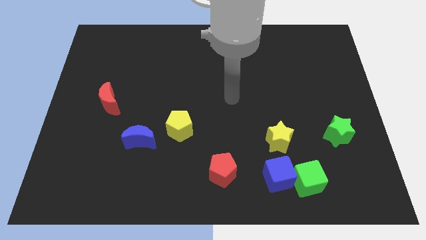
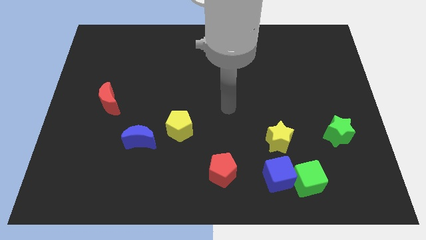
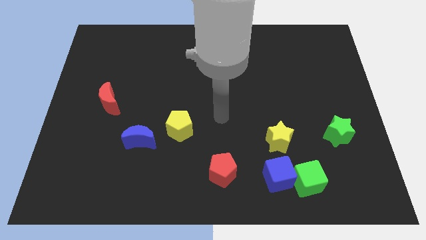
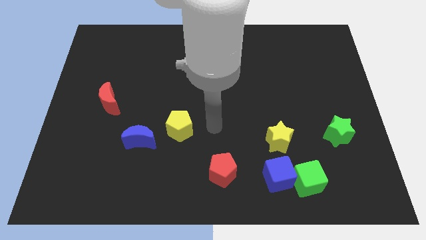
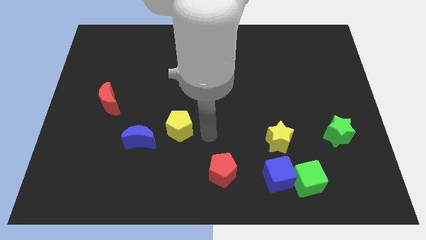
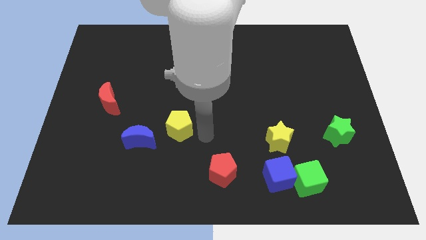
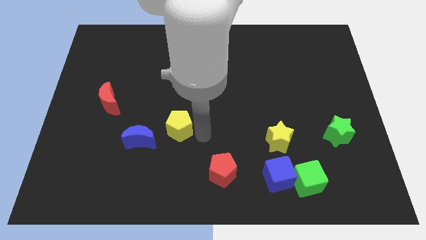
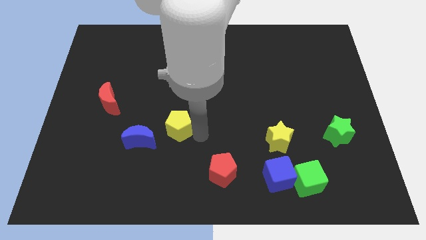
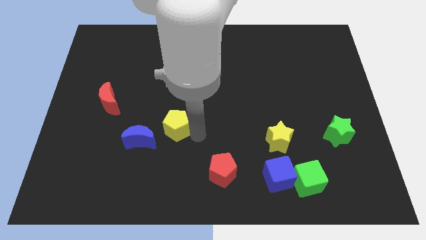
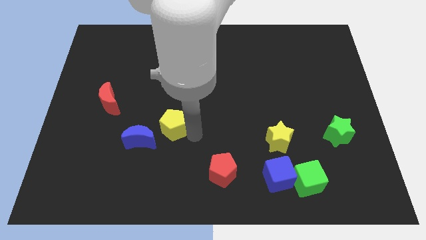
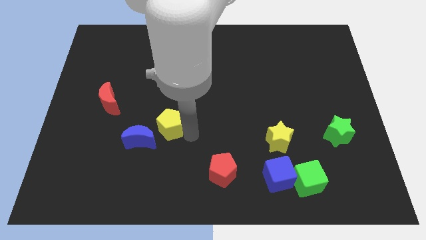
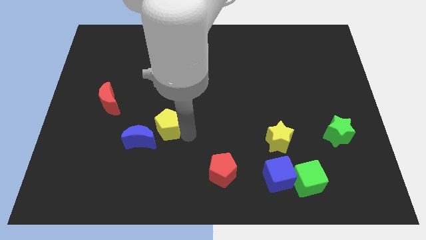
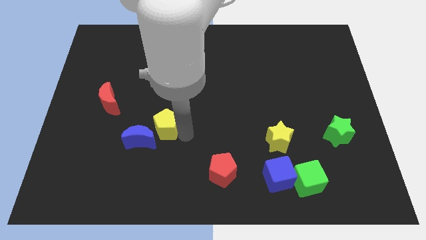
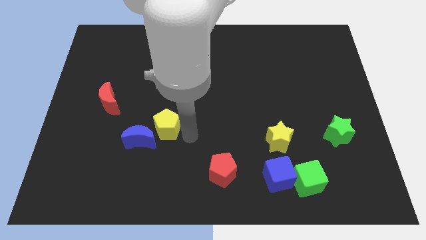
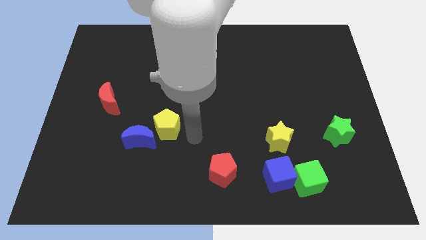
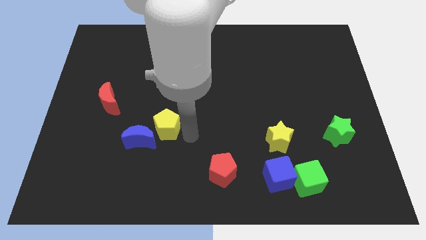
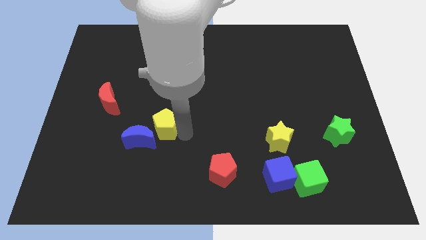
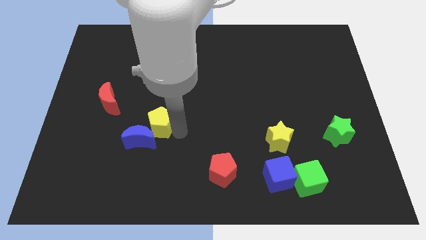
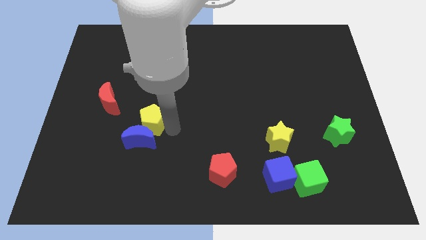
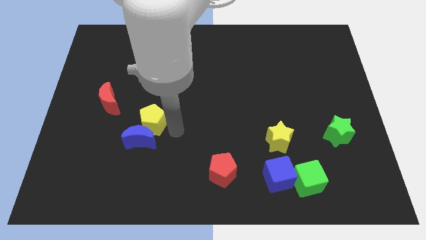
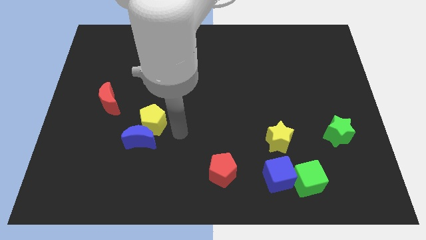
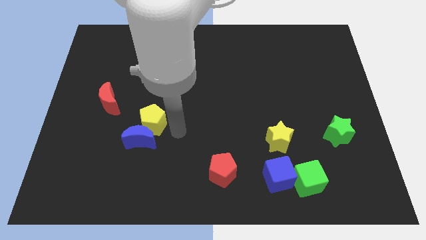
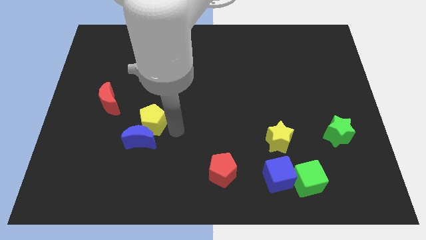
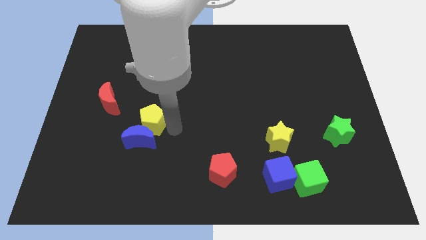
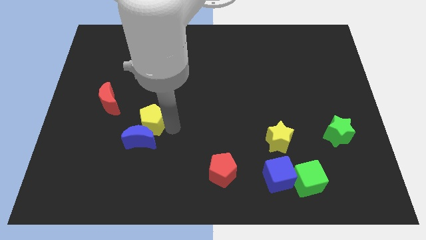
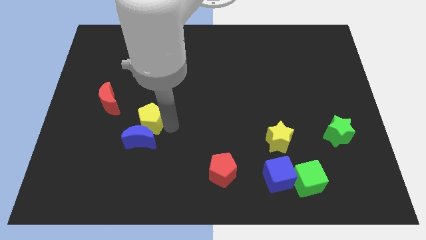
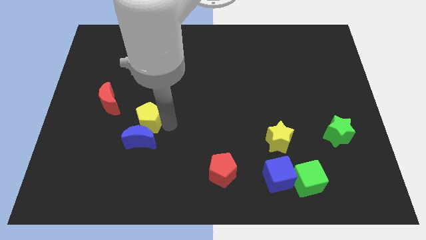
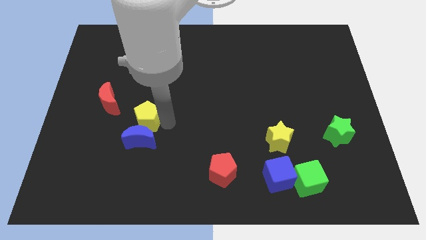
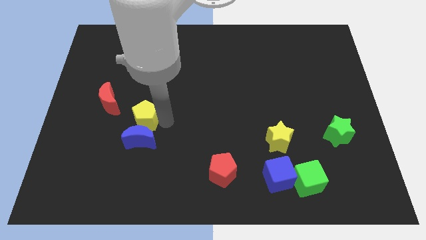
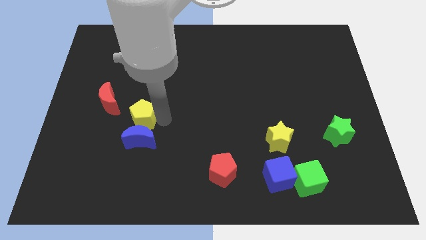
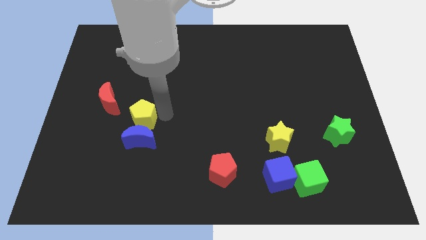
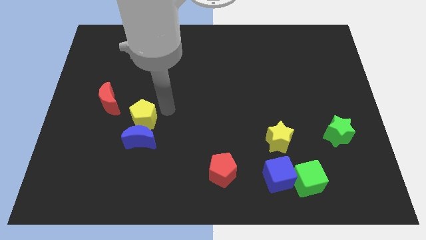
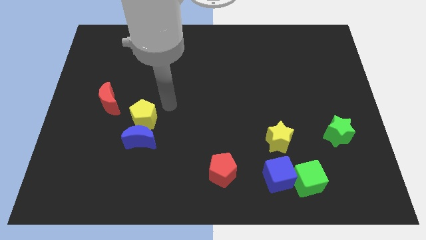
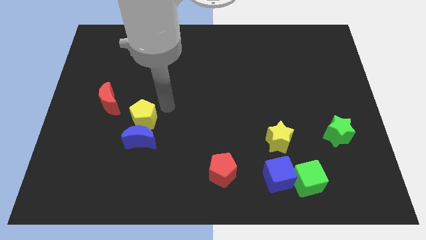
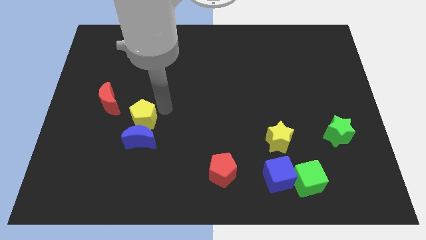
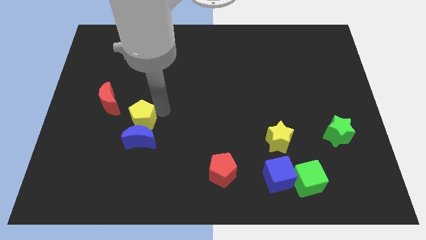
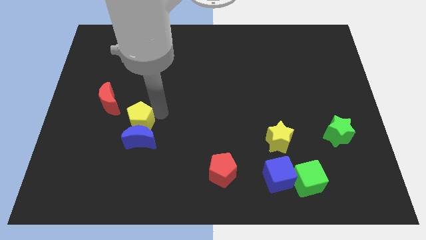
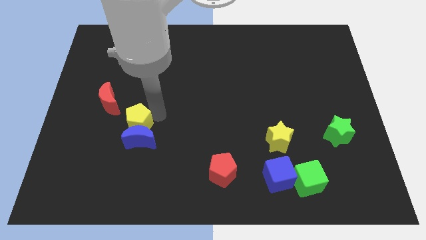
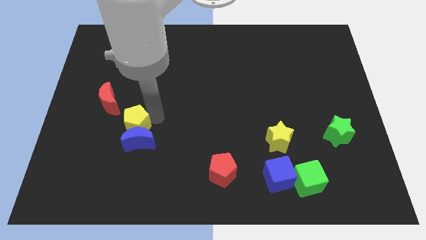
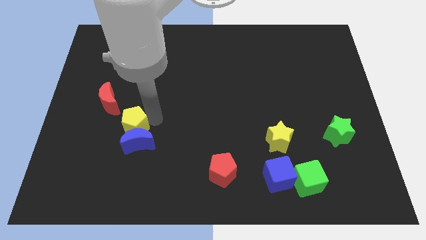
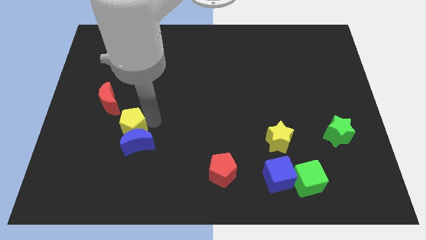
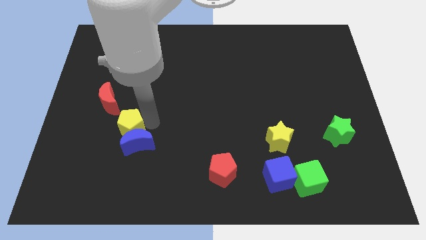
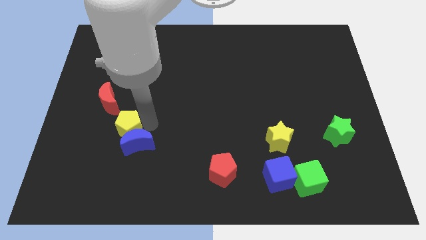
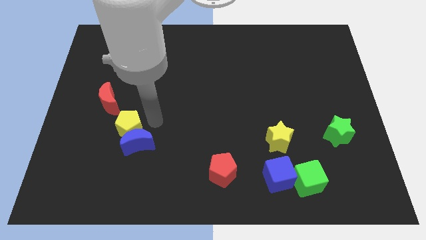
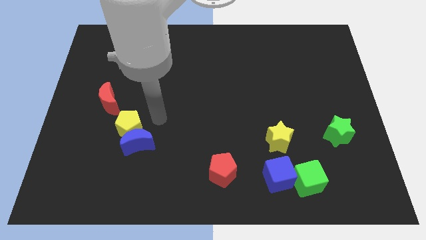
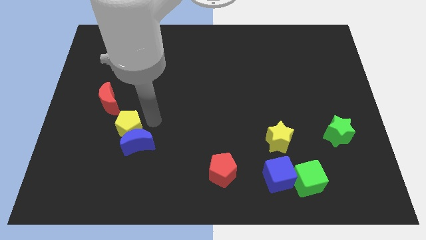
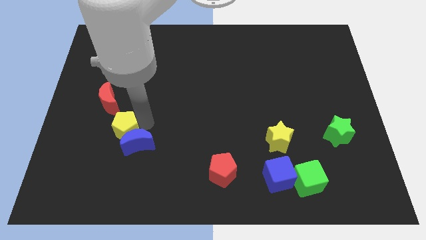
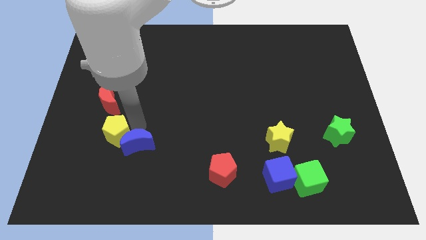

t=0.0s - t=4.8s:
move the yellow pentagon to the bottom side of the red moon

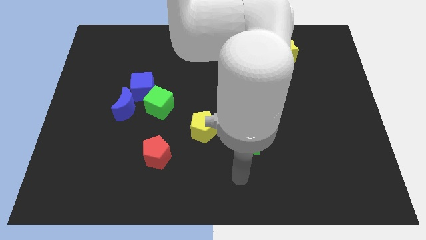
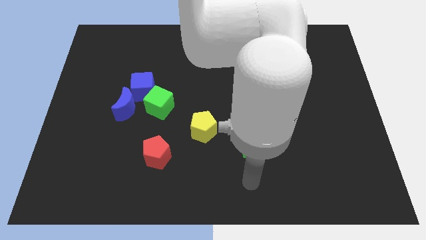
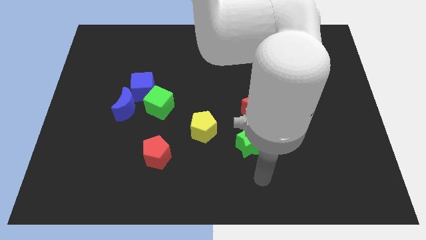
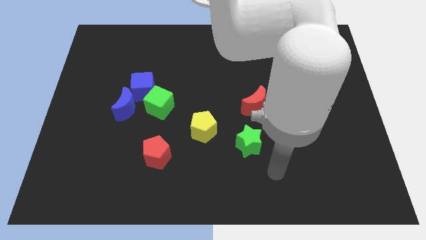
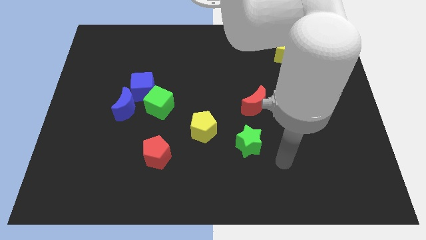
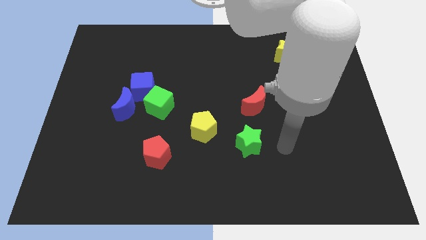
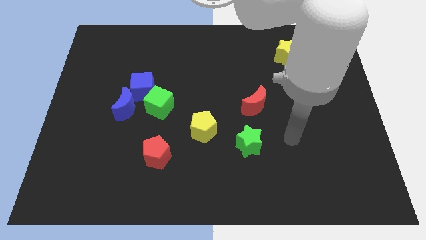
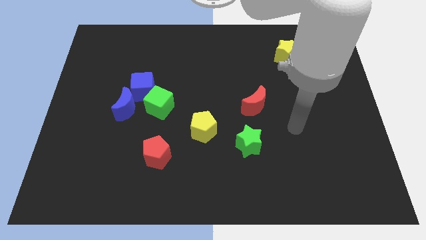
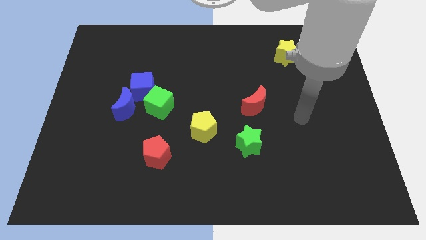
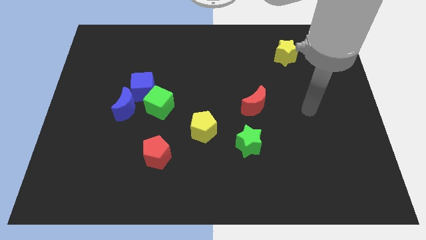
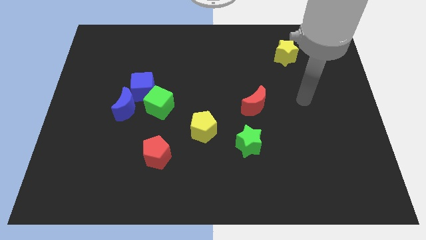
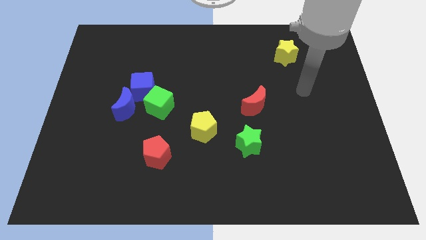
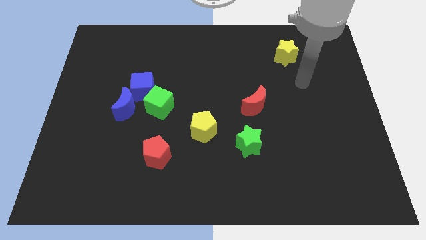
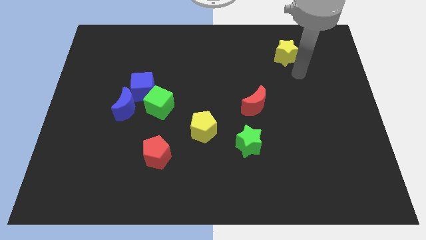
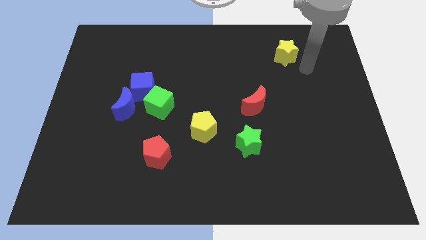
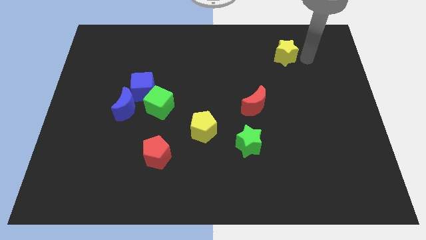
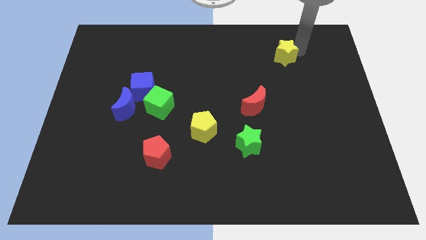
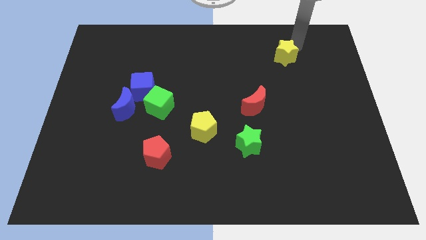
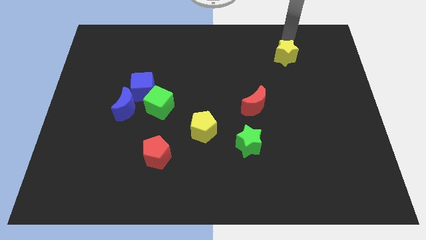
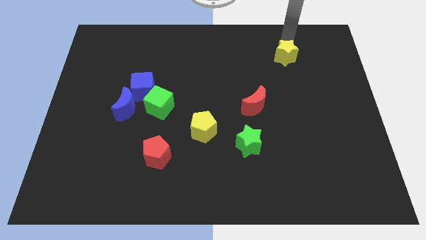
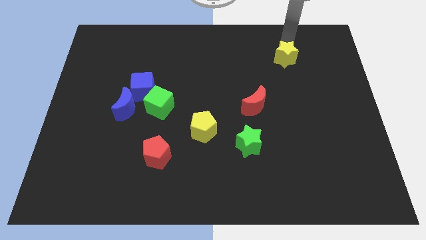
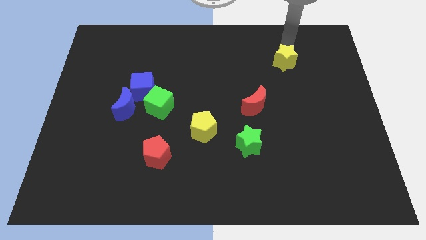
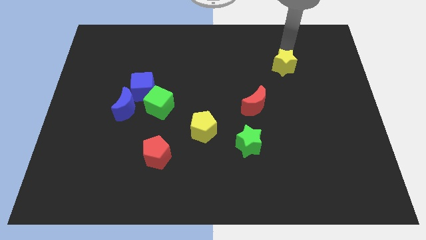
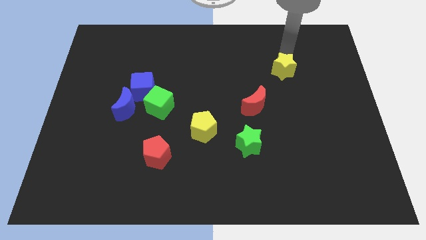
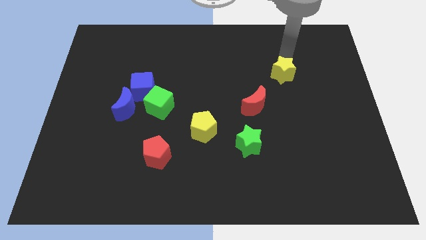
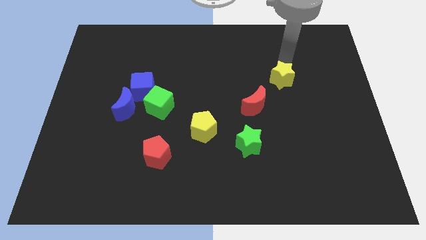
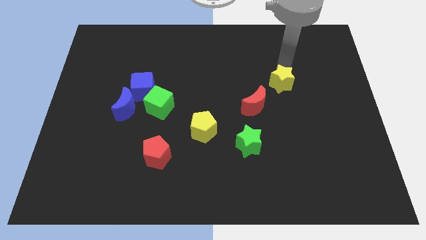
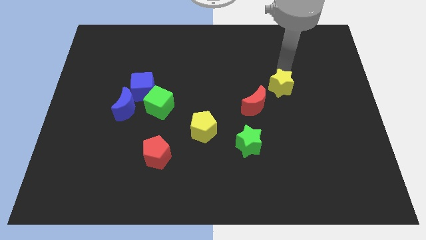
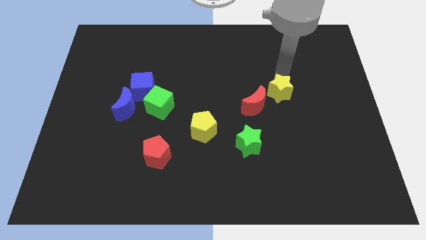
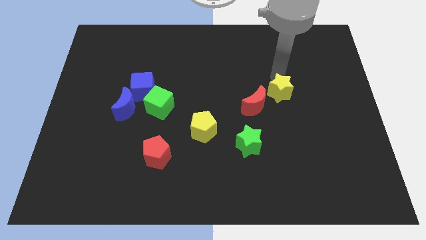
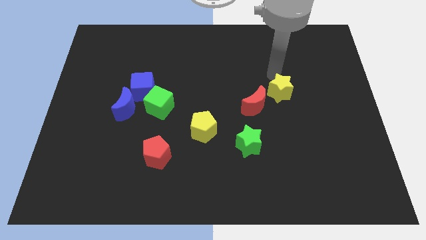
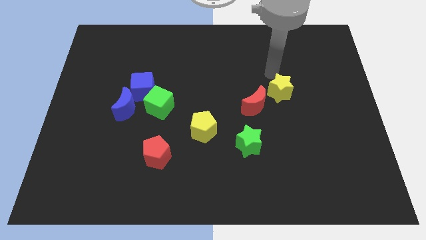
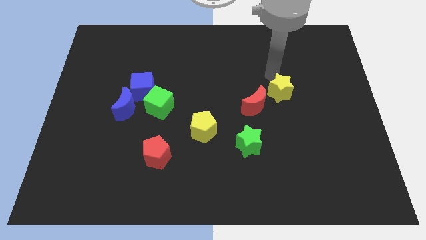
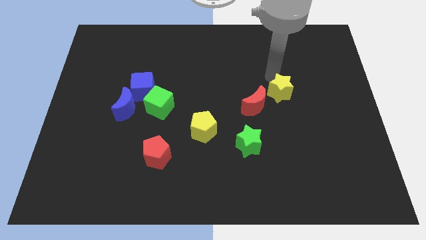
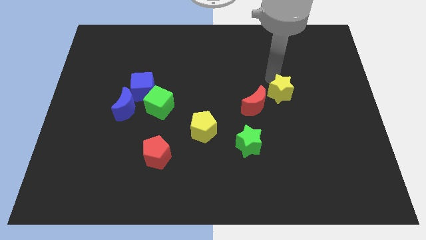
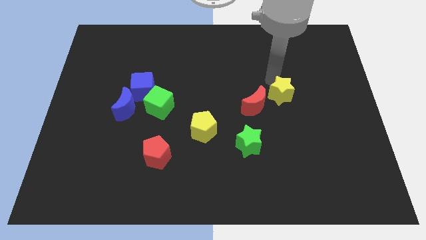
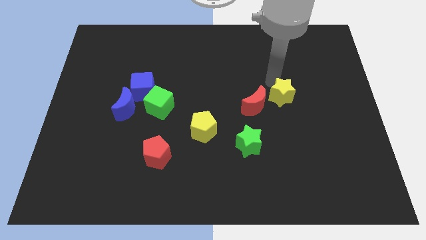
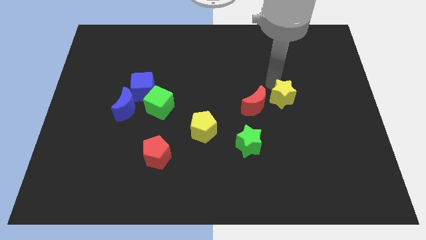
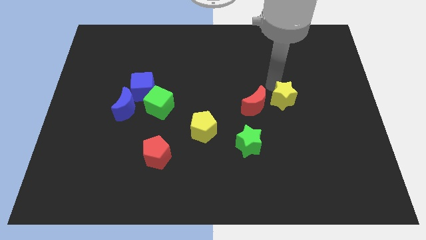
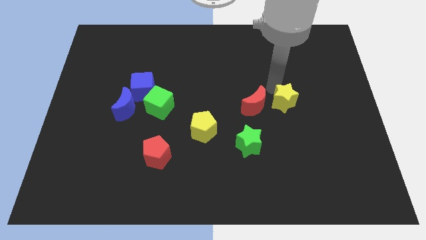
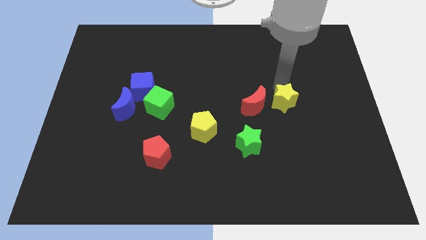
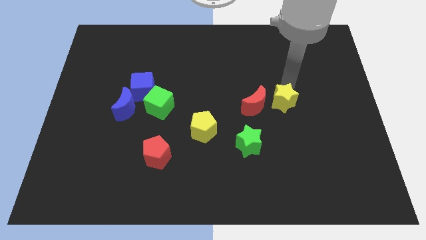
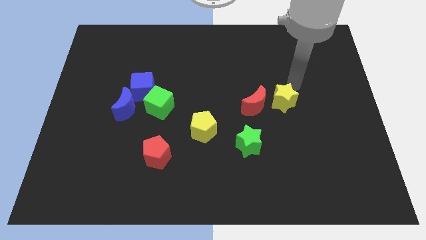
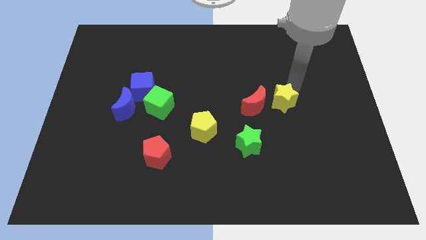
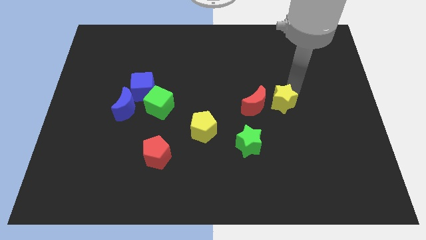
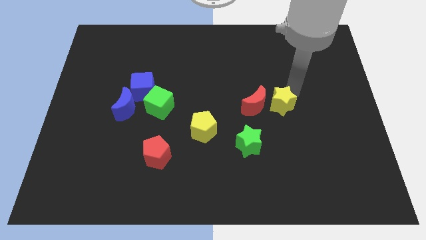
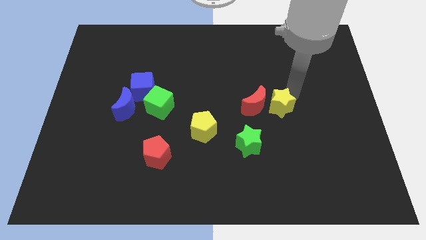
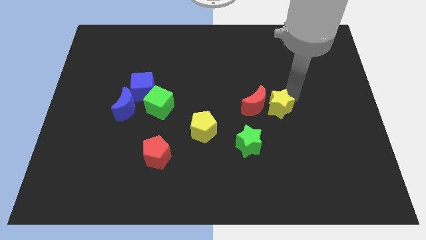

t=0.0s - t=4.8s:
move the yellow star to the top right of the green star
